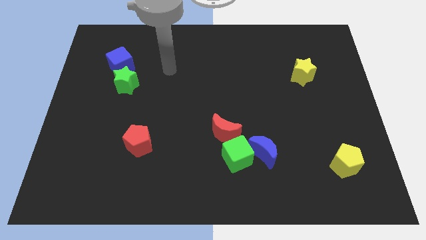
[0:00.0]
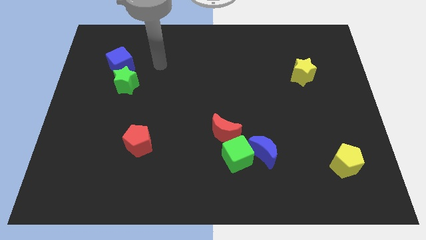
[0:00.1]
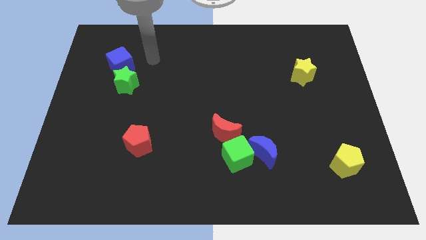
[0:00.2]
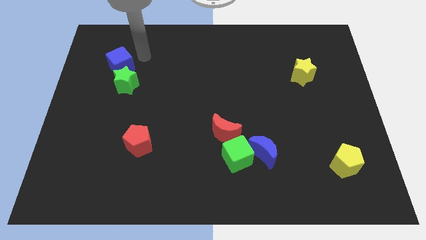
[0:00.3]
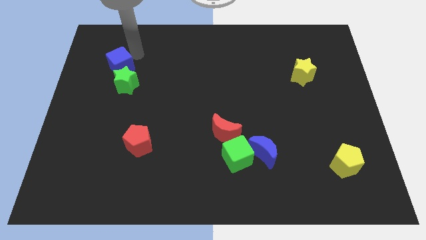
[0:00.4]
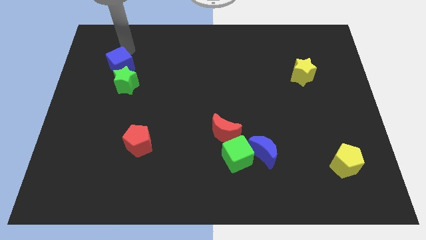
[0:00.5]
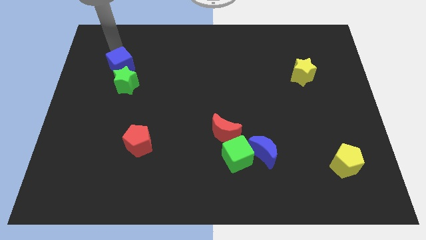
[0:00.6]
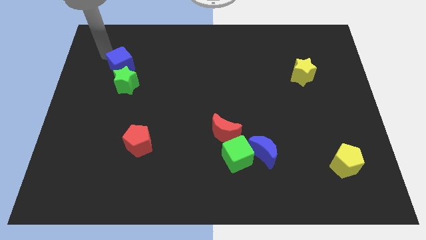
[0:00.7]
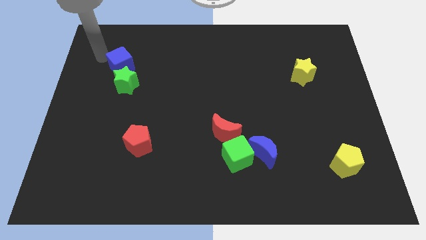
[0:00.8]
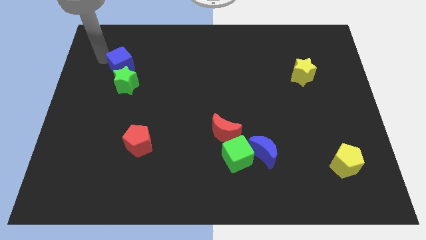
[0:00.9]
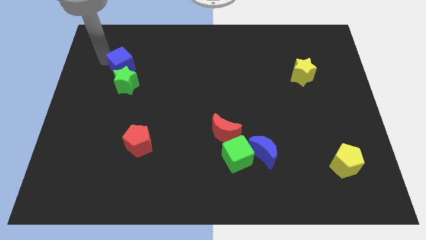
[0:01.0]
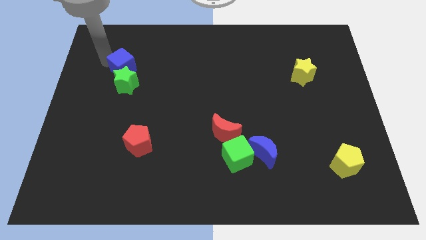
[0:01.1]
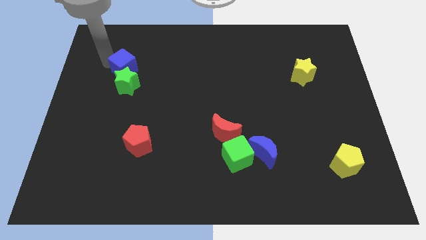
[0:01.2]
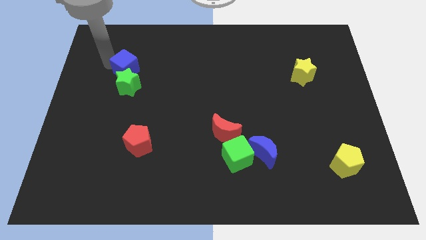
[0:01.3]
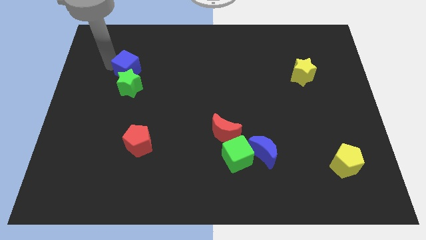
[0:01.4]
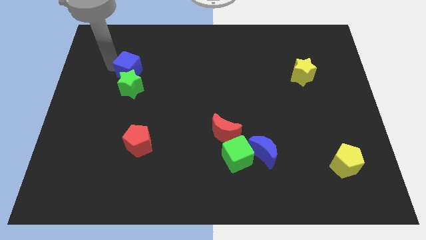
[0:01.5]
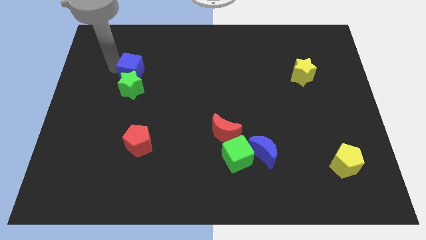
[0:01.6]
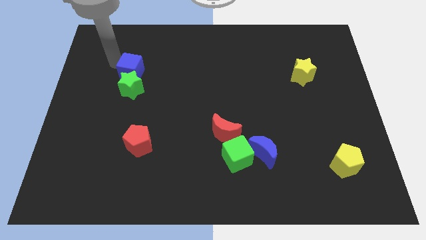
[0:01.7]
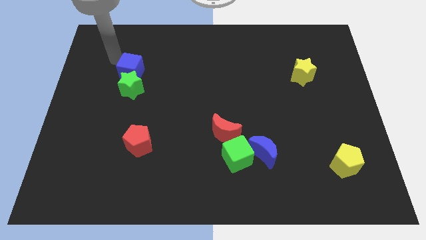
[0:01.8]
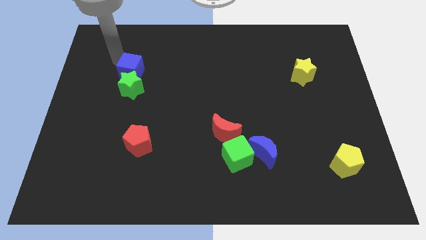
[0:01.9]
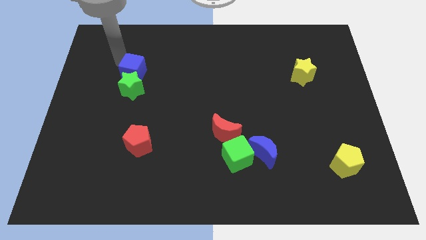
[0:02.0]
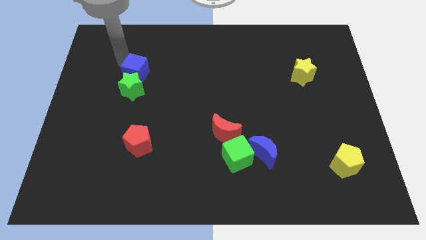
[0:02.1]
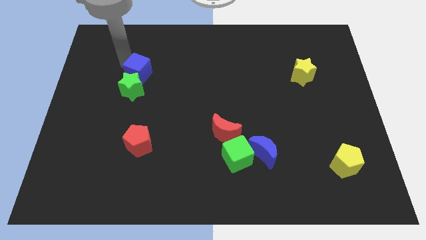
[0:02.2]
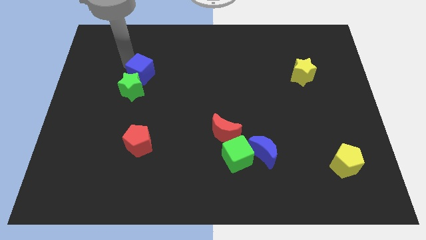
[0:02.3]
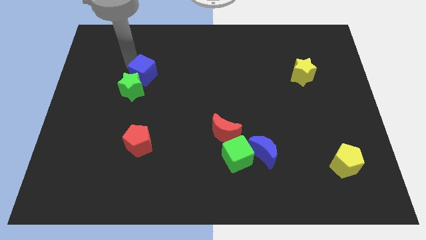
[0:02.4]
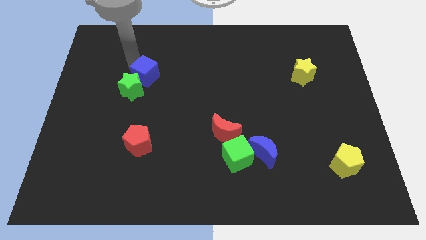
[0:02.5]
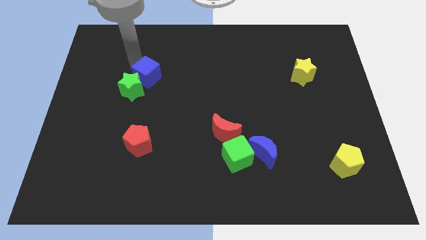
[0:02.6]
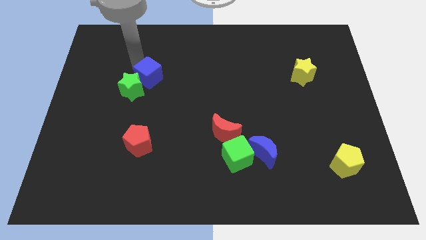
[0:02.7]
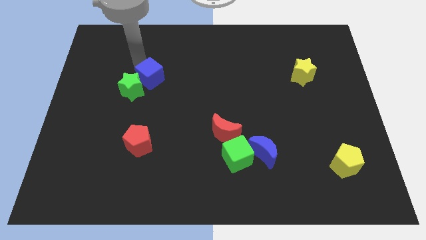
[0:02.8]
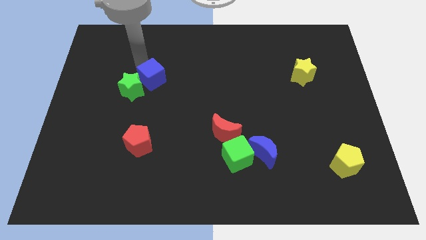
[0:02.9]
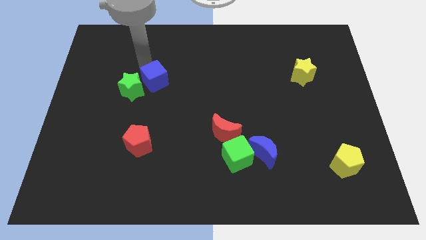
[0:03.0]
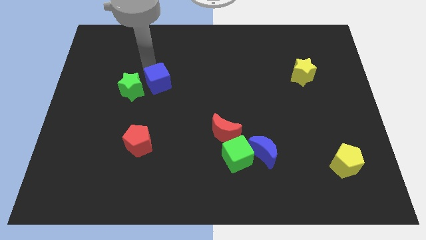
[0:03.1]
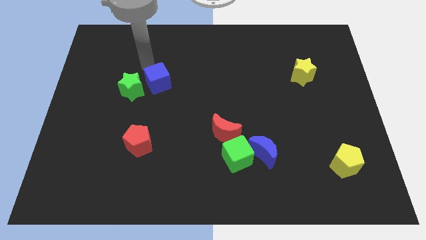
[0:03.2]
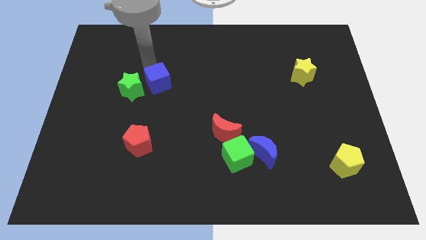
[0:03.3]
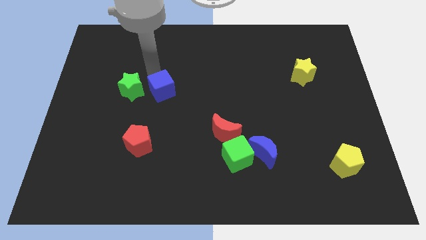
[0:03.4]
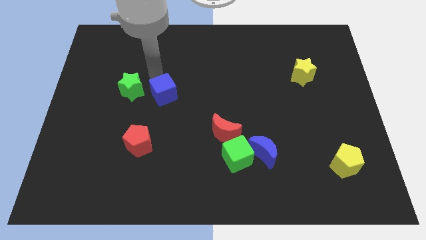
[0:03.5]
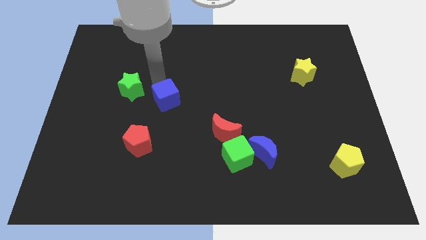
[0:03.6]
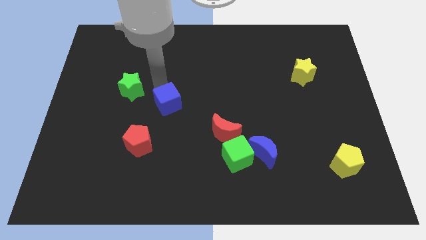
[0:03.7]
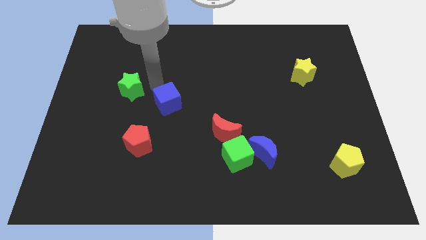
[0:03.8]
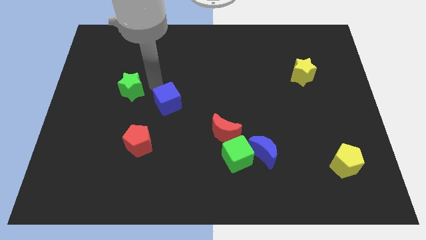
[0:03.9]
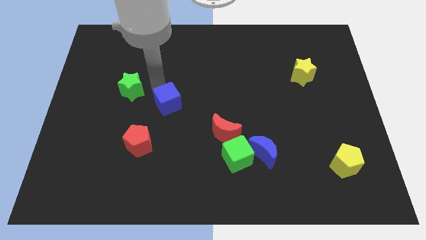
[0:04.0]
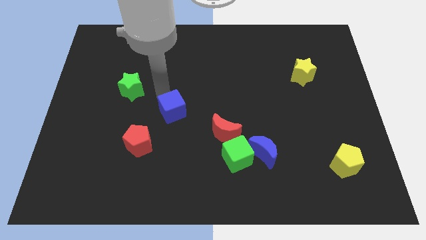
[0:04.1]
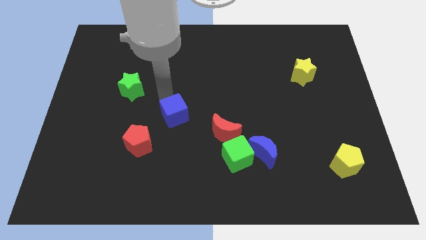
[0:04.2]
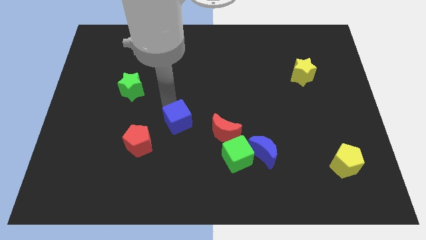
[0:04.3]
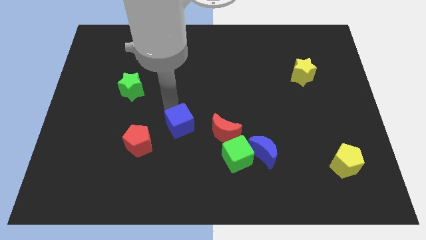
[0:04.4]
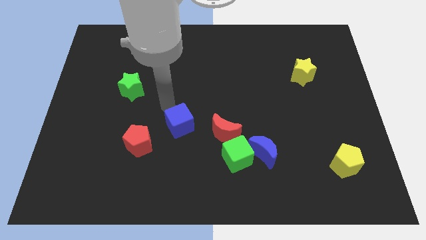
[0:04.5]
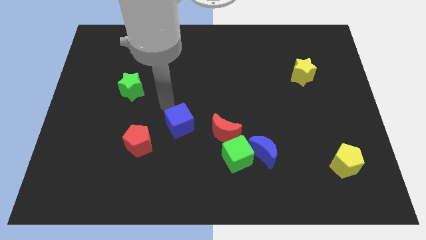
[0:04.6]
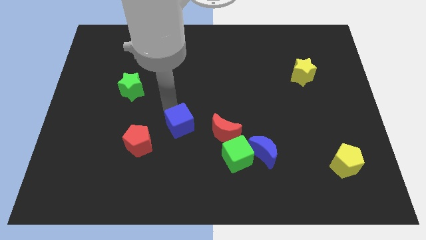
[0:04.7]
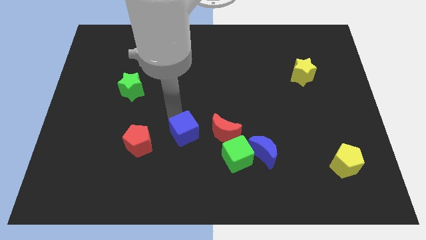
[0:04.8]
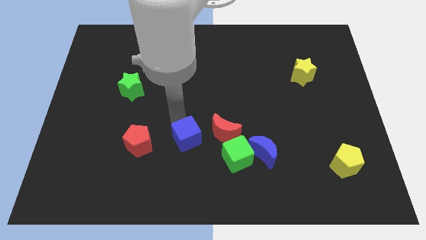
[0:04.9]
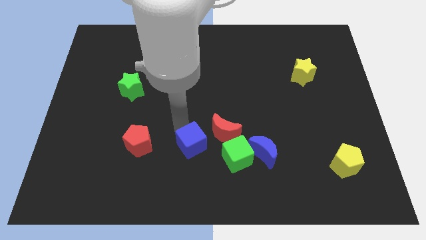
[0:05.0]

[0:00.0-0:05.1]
push the blue cube to the bottom left of the red moon

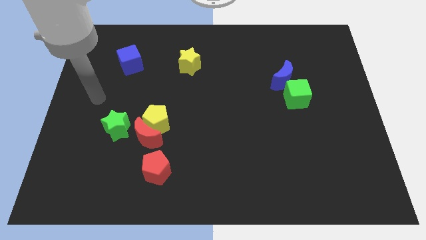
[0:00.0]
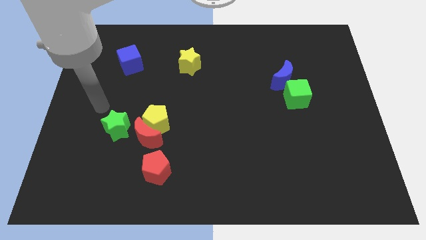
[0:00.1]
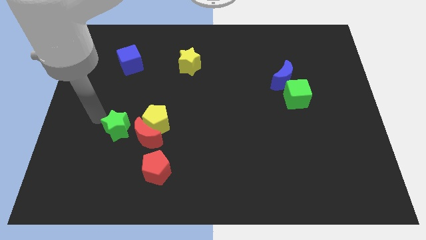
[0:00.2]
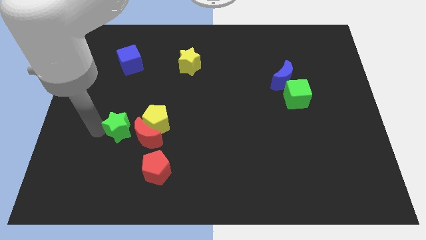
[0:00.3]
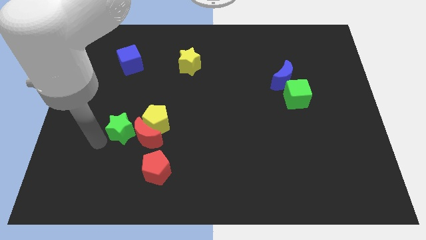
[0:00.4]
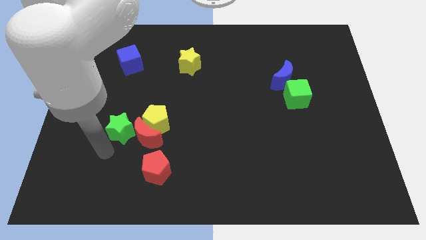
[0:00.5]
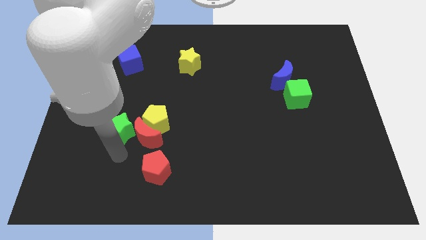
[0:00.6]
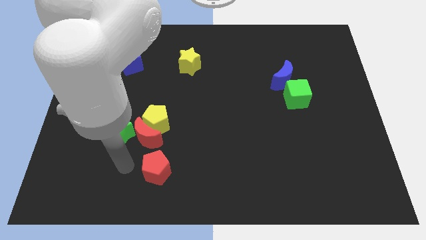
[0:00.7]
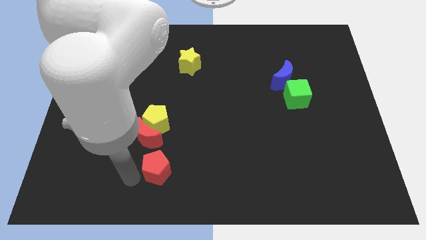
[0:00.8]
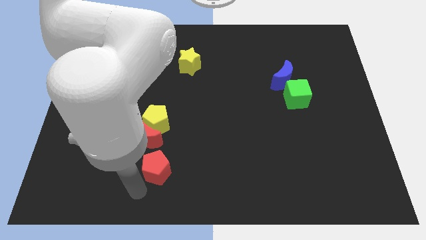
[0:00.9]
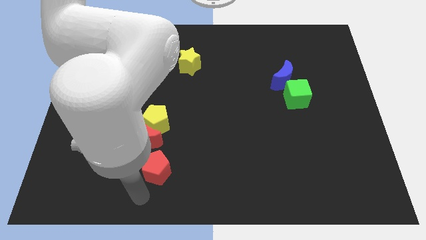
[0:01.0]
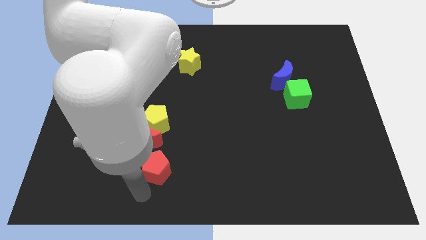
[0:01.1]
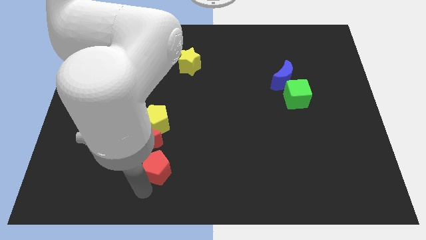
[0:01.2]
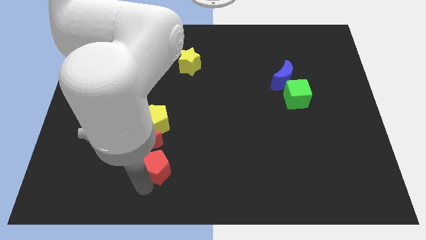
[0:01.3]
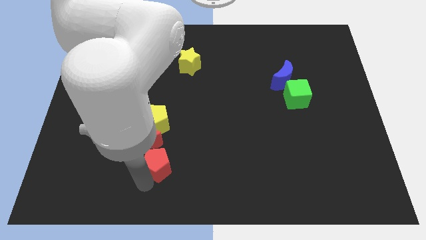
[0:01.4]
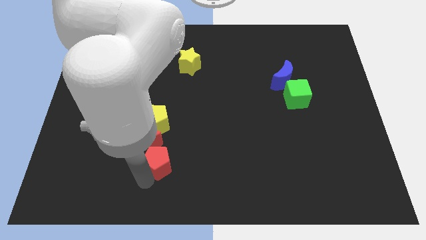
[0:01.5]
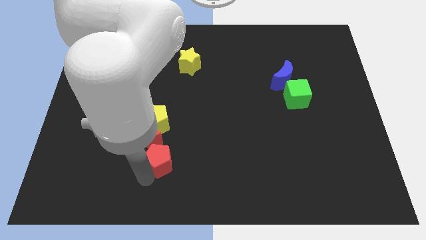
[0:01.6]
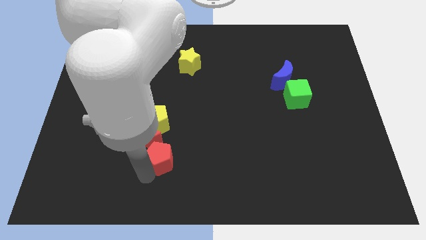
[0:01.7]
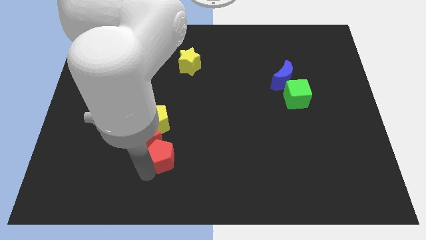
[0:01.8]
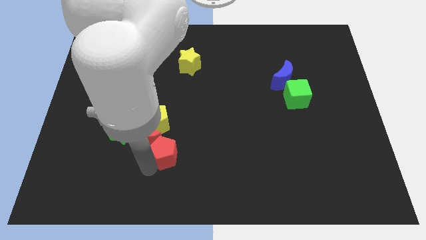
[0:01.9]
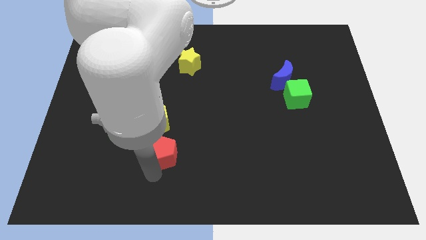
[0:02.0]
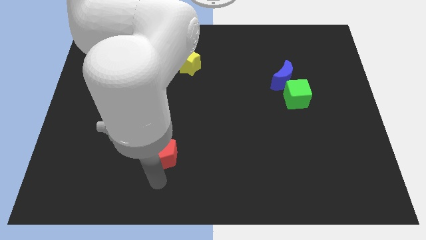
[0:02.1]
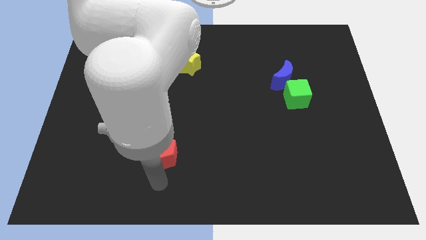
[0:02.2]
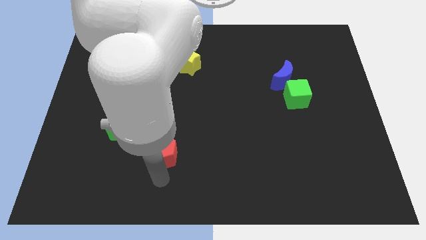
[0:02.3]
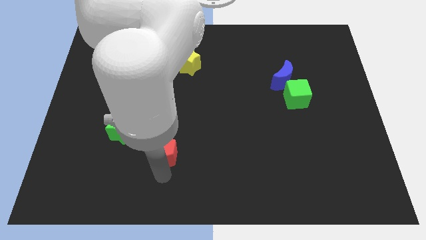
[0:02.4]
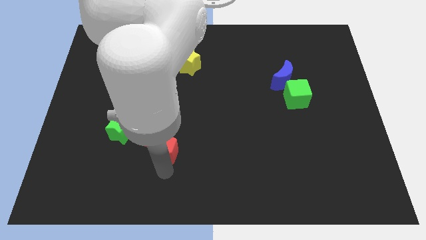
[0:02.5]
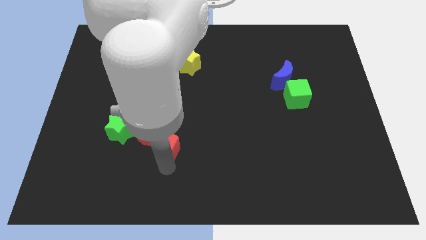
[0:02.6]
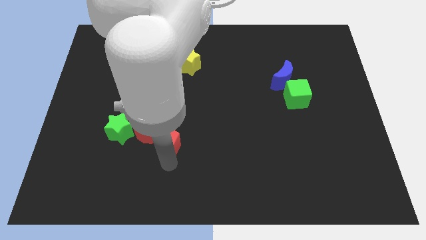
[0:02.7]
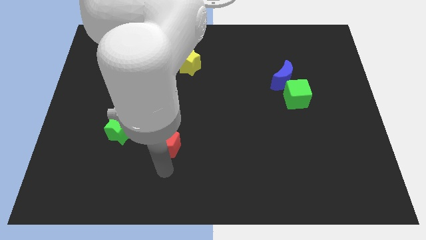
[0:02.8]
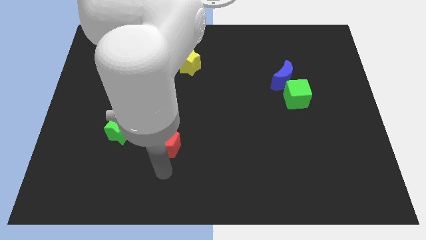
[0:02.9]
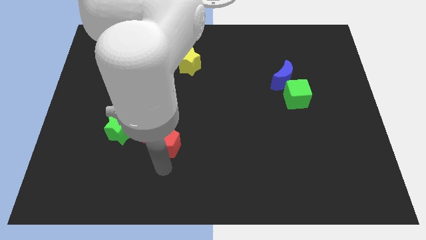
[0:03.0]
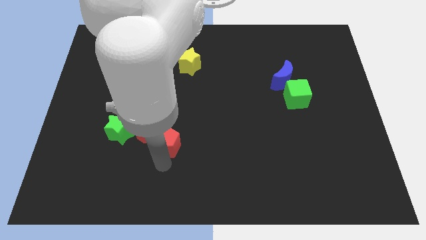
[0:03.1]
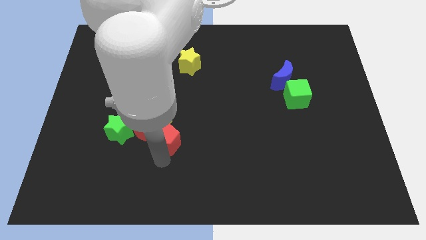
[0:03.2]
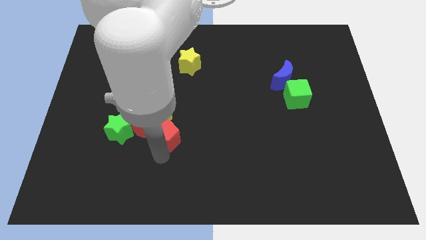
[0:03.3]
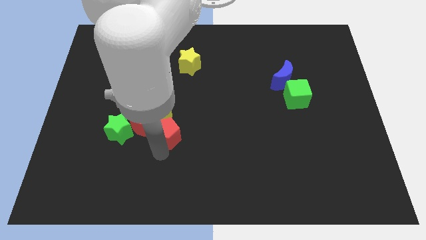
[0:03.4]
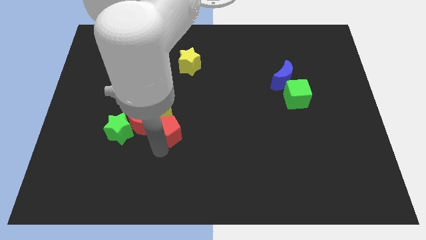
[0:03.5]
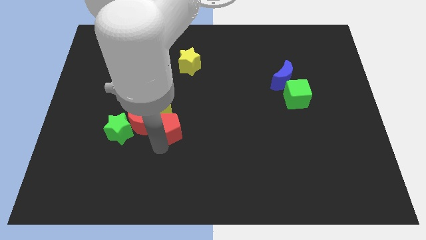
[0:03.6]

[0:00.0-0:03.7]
move the red pentagon diagonally up and to the right of the red moon
